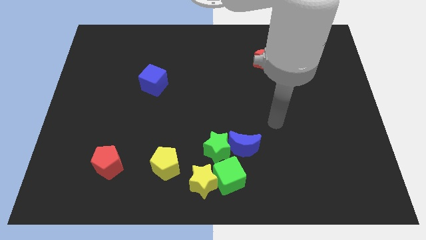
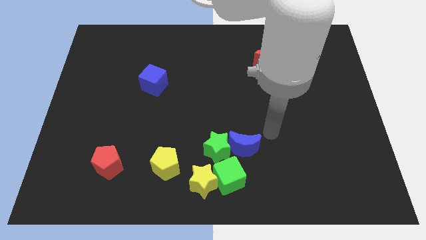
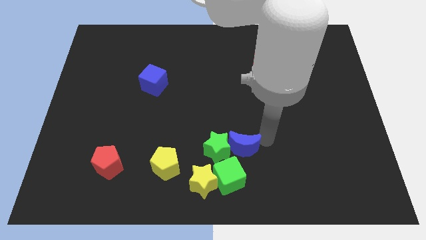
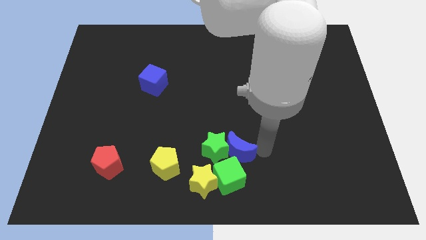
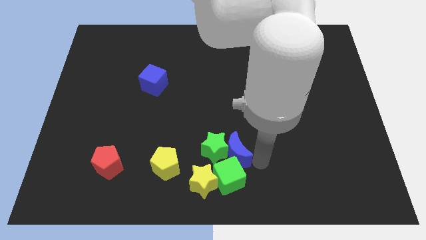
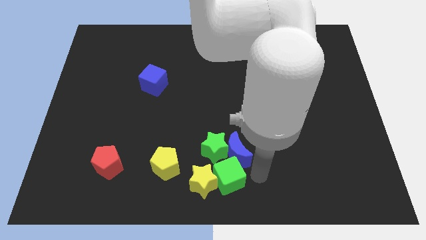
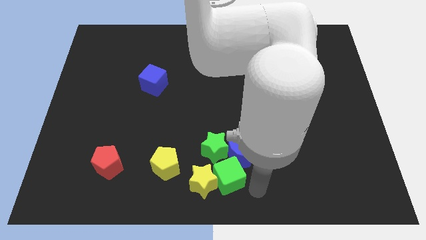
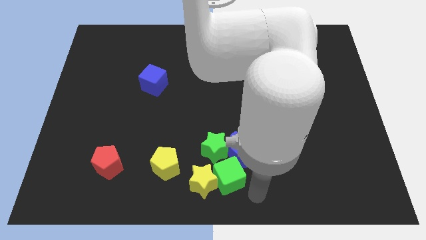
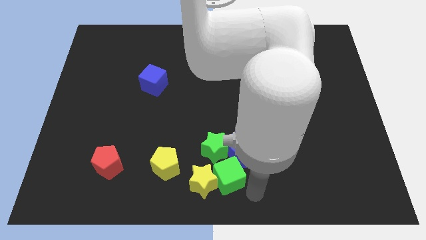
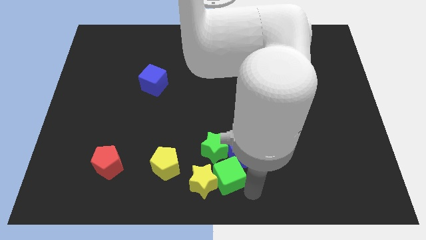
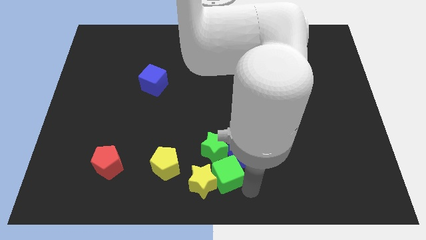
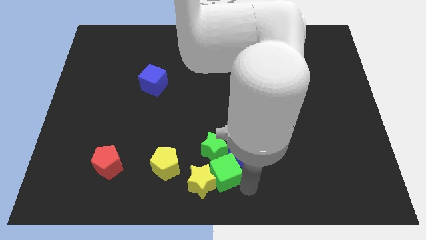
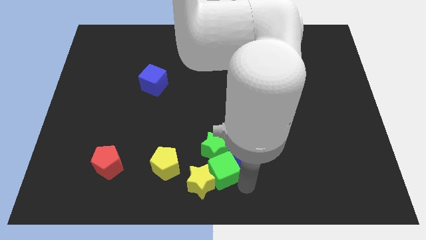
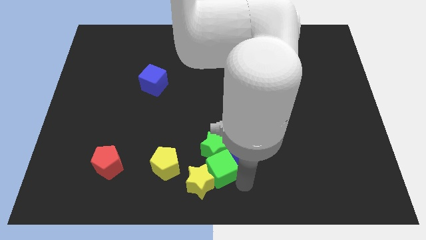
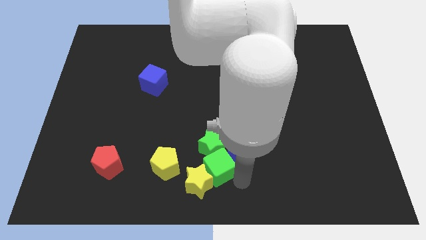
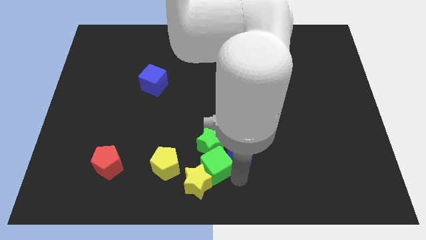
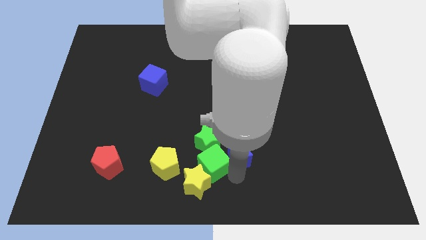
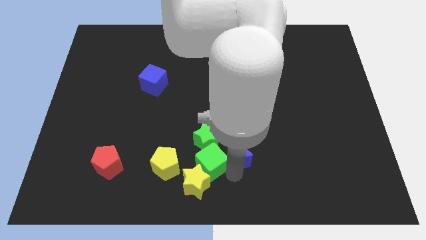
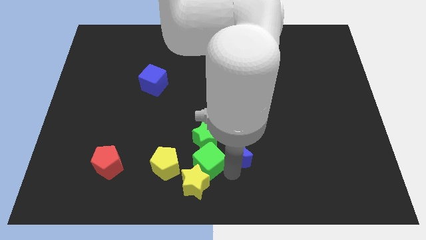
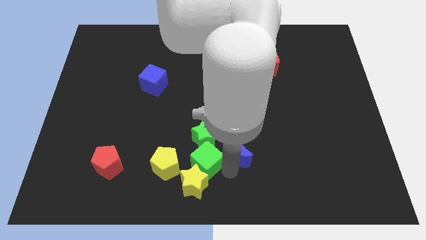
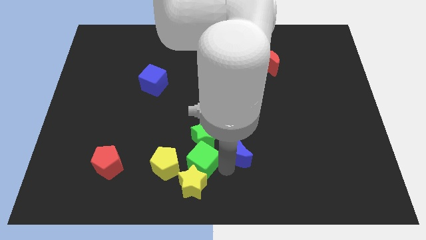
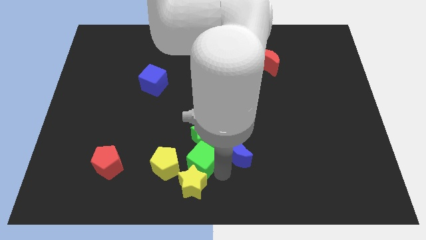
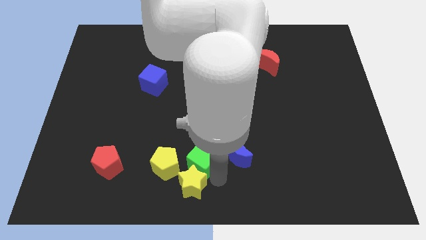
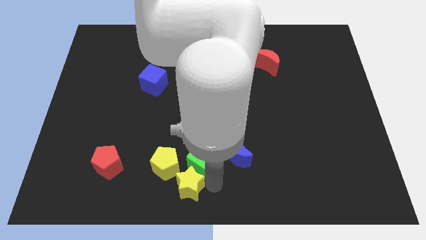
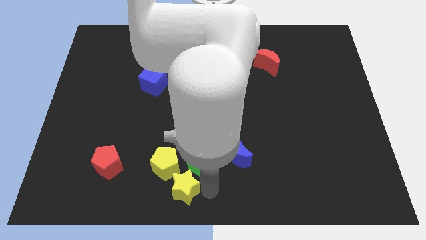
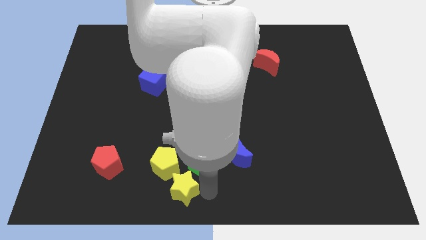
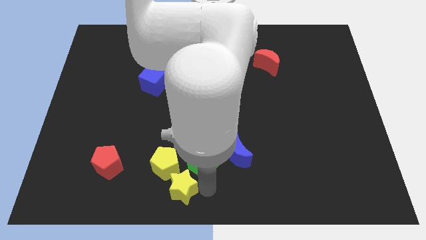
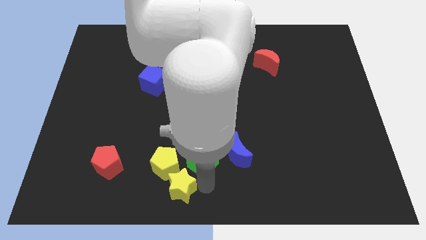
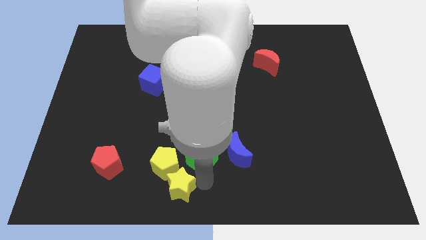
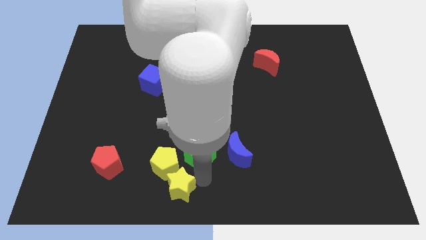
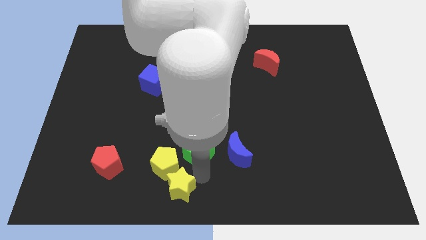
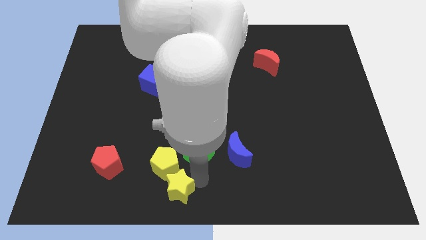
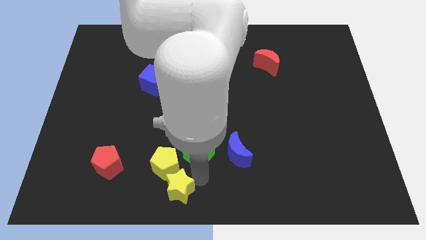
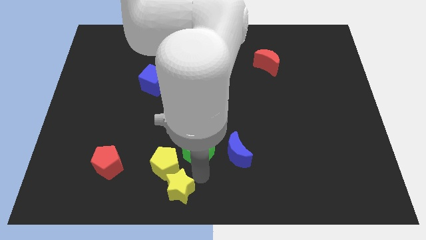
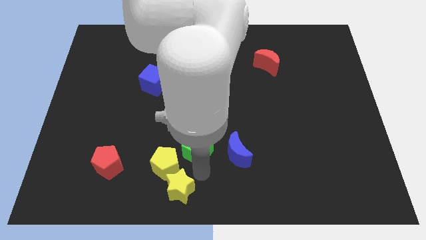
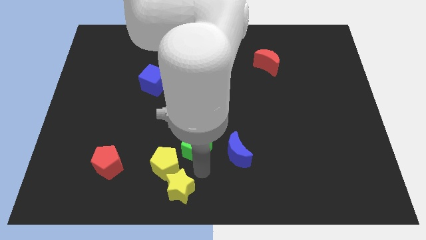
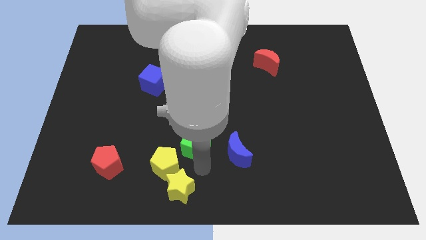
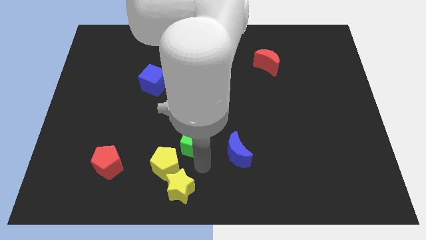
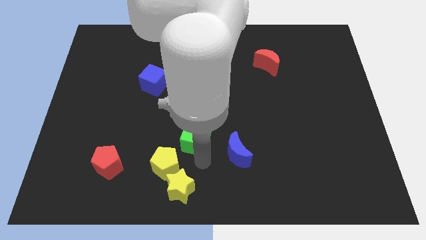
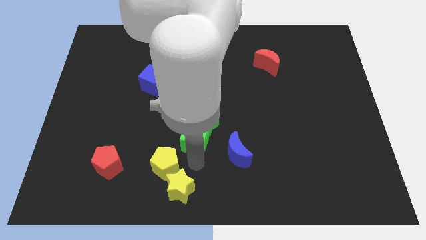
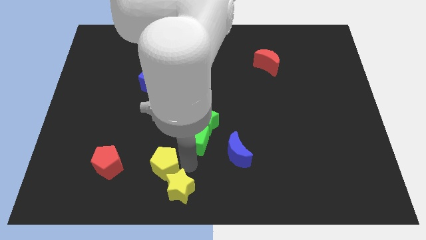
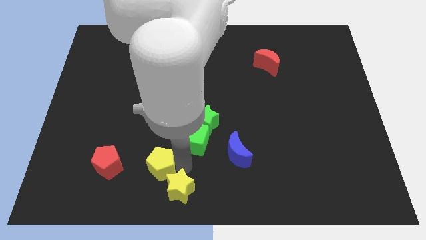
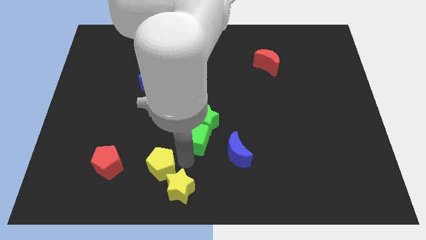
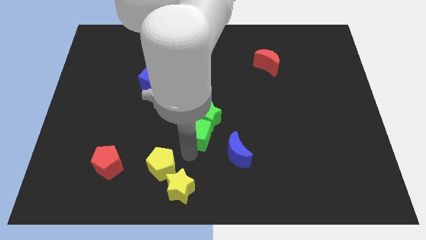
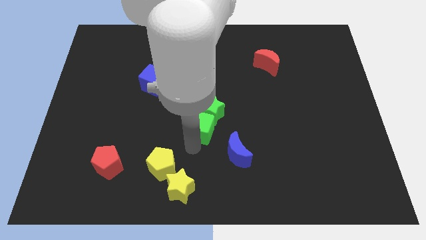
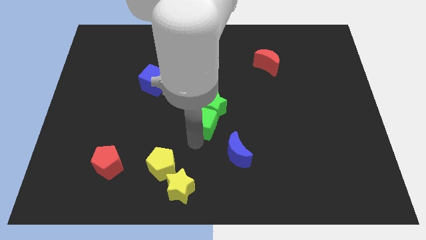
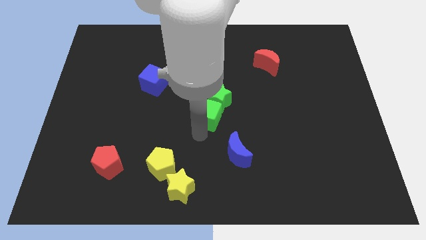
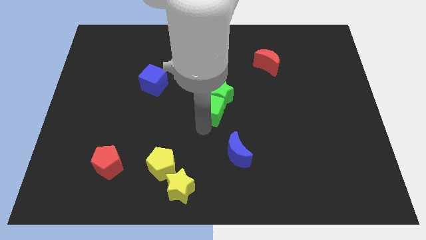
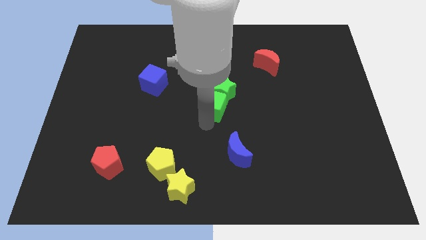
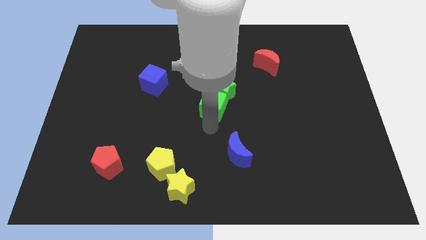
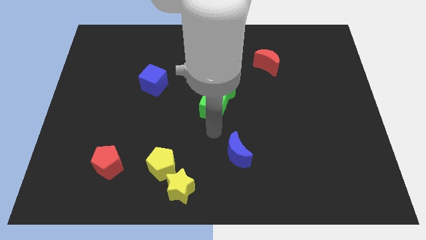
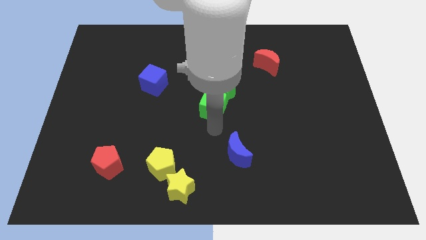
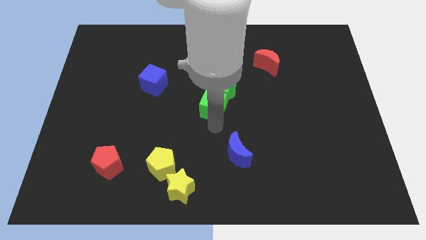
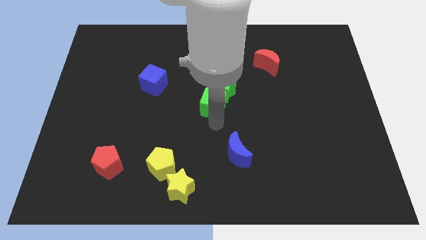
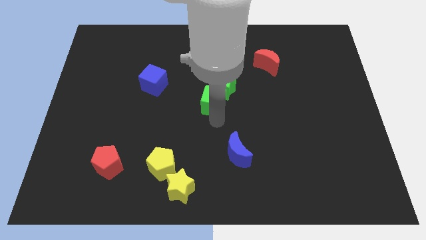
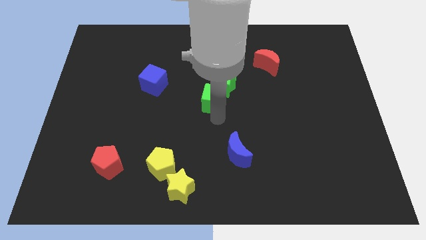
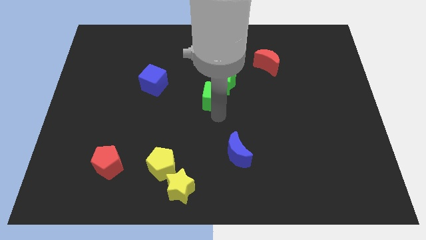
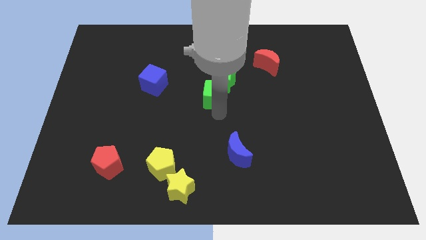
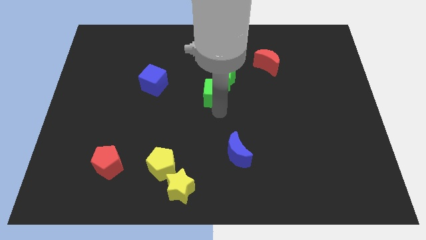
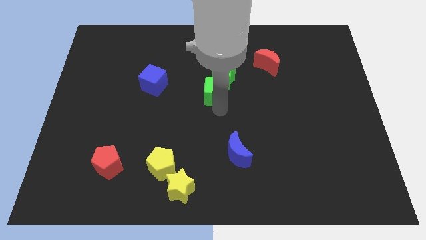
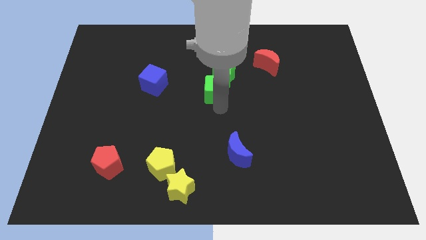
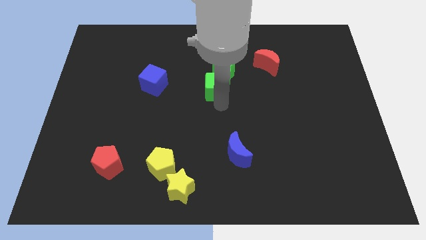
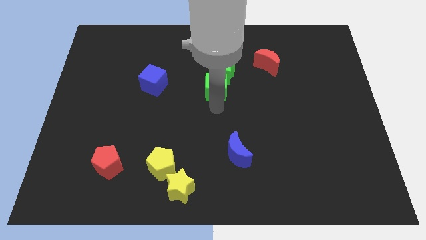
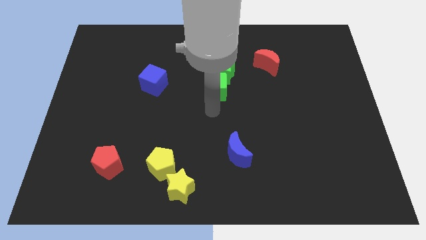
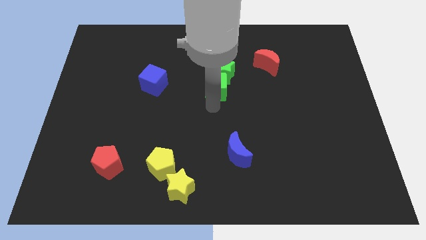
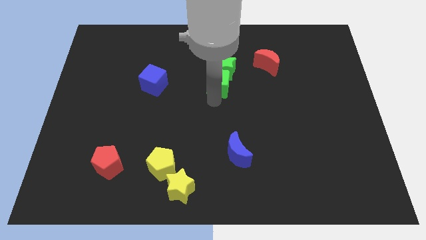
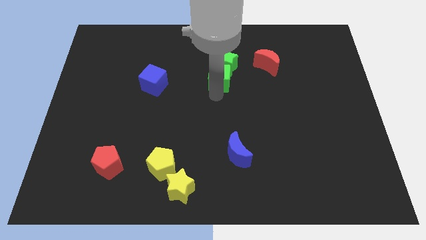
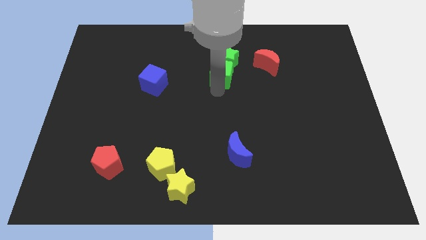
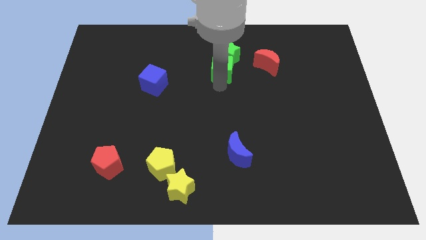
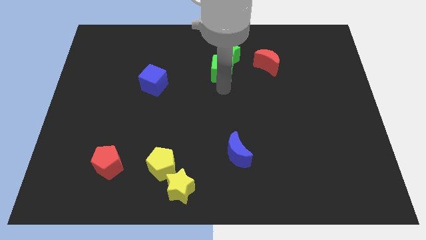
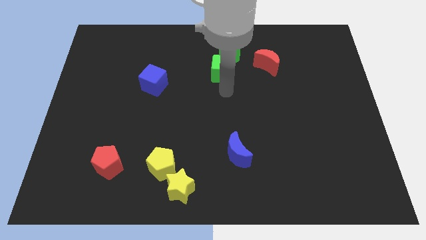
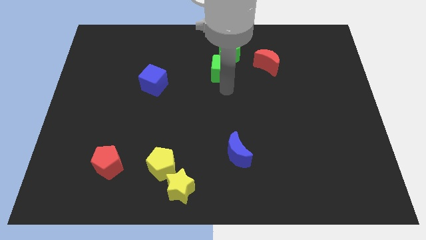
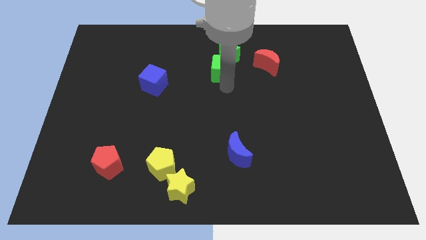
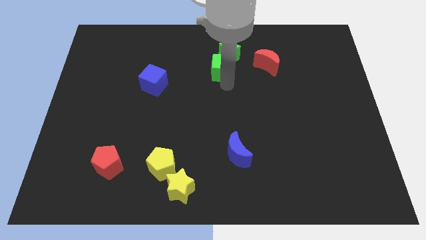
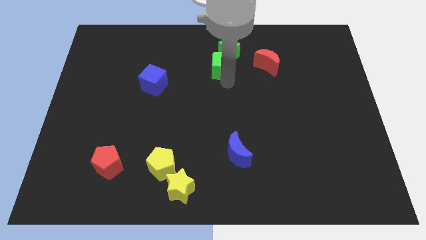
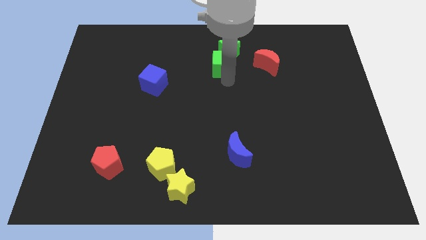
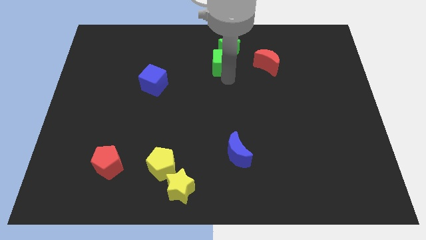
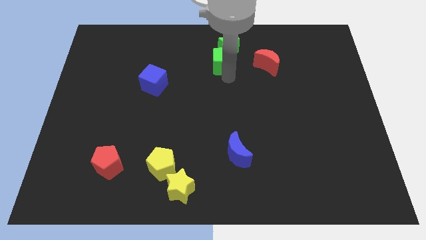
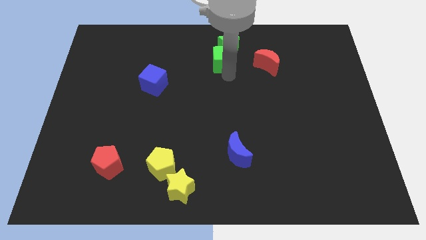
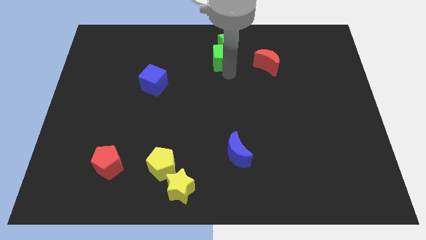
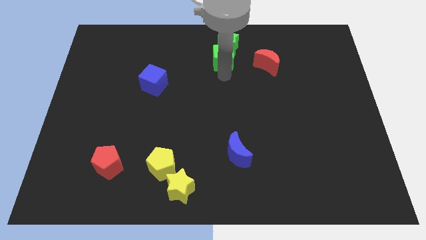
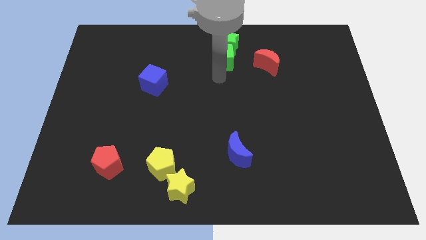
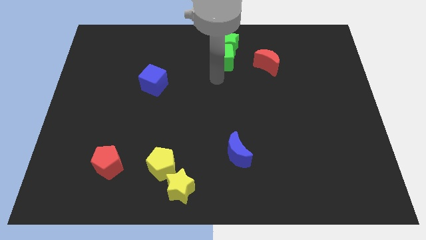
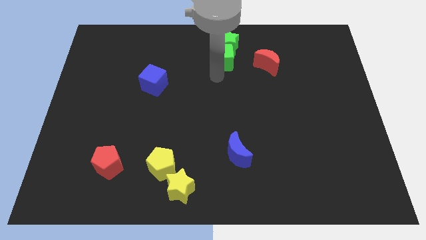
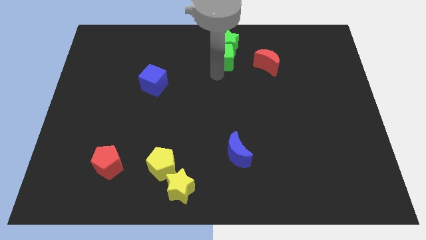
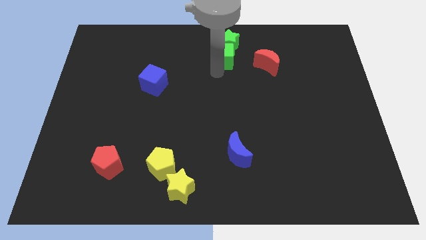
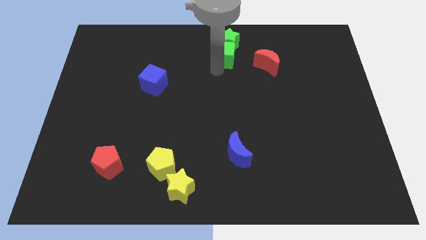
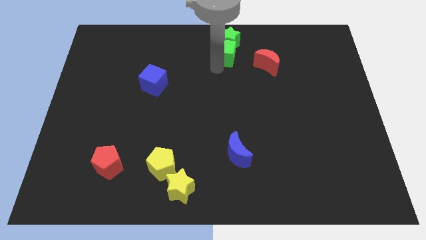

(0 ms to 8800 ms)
put the green cube to the top
